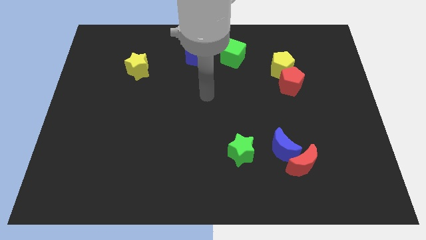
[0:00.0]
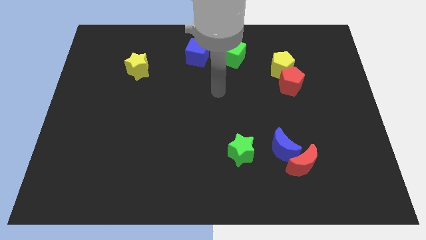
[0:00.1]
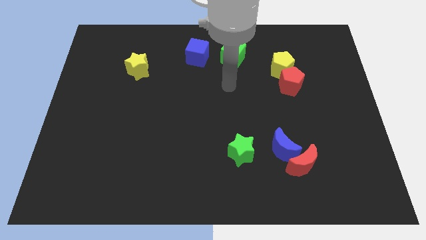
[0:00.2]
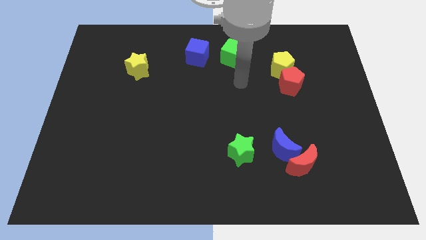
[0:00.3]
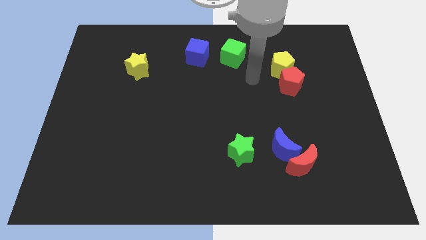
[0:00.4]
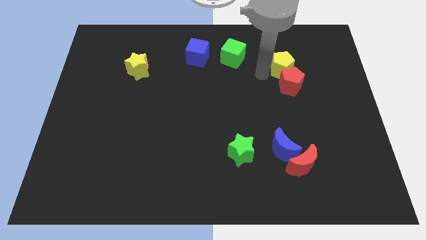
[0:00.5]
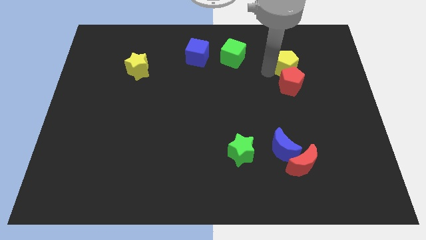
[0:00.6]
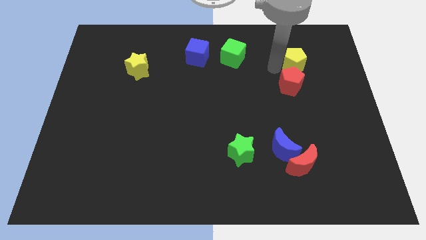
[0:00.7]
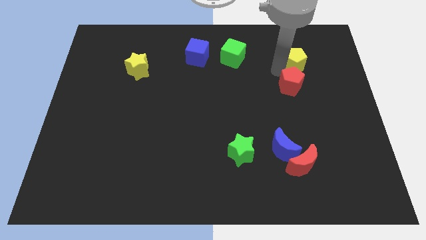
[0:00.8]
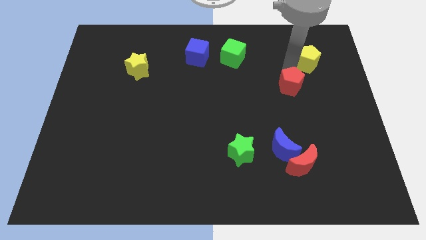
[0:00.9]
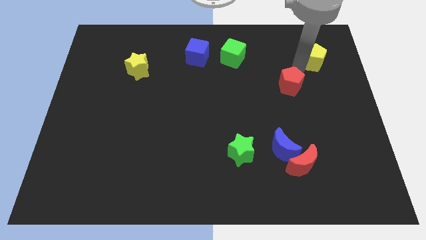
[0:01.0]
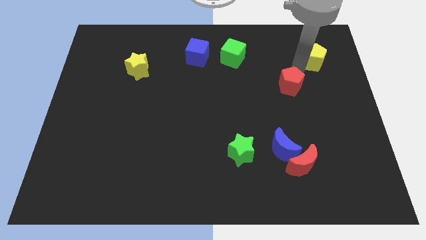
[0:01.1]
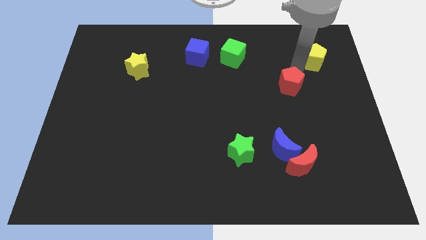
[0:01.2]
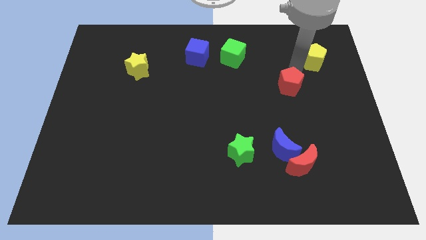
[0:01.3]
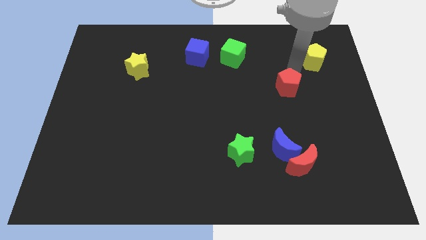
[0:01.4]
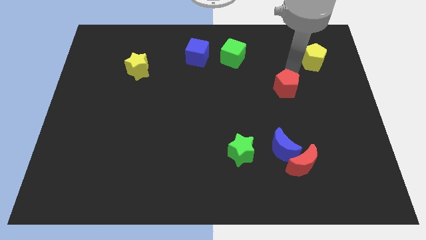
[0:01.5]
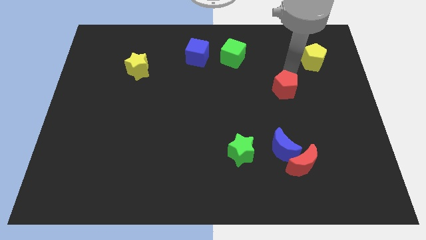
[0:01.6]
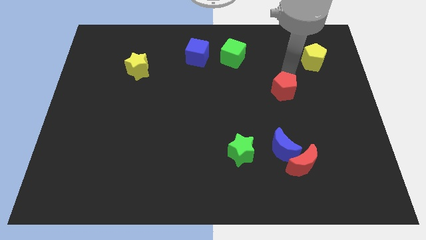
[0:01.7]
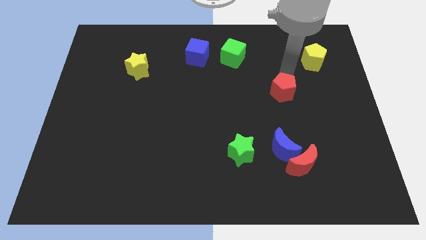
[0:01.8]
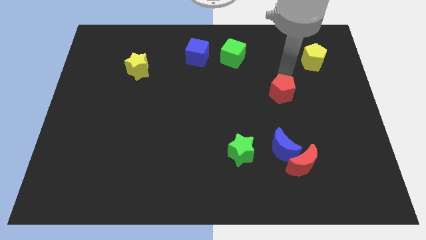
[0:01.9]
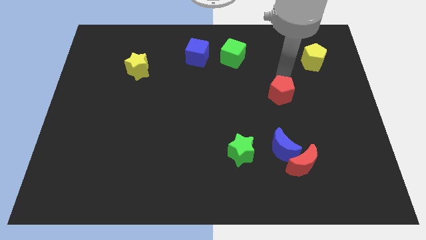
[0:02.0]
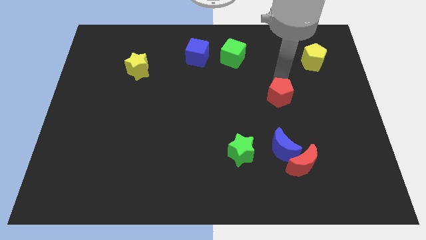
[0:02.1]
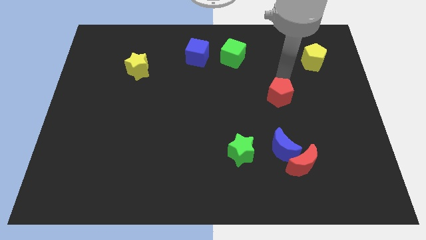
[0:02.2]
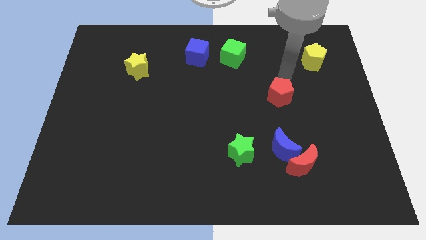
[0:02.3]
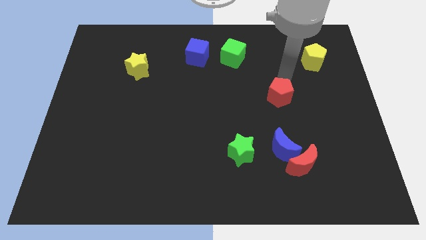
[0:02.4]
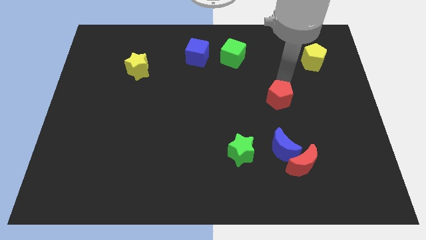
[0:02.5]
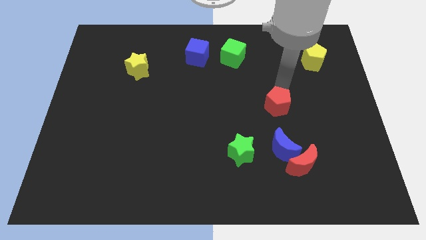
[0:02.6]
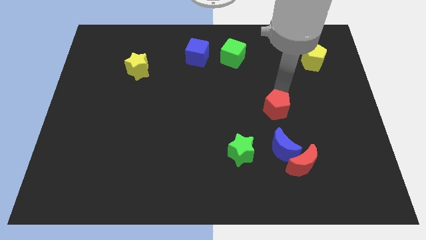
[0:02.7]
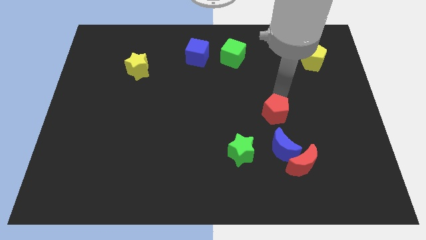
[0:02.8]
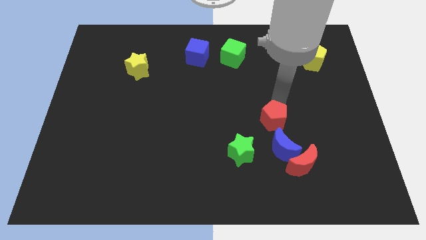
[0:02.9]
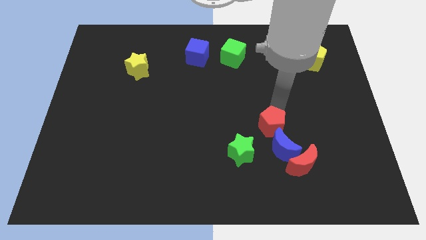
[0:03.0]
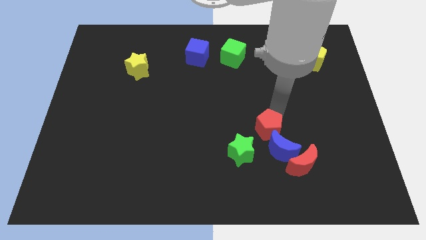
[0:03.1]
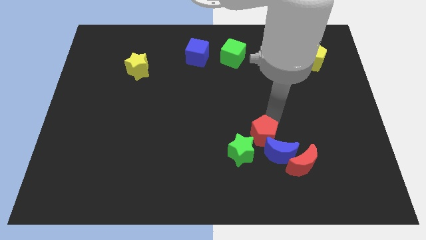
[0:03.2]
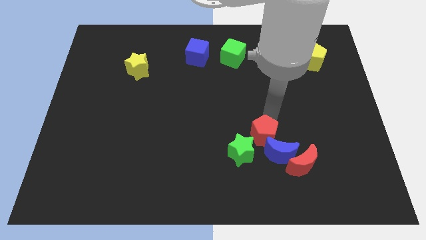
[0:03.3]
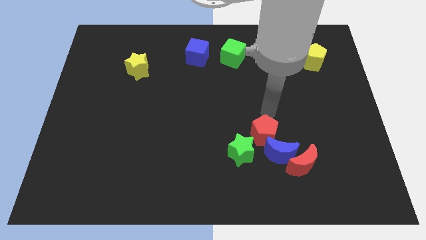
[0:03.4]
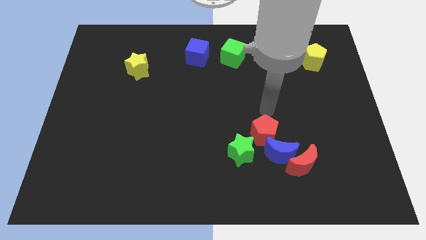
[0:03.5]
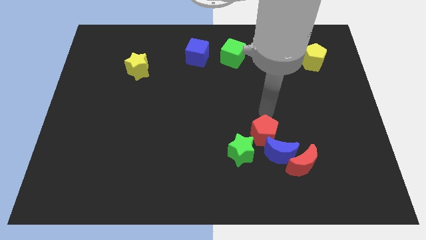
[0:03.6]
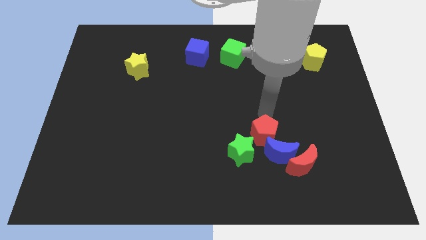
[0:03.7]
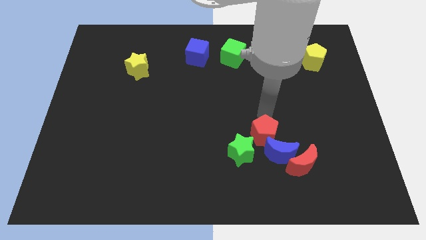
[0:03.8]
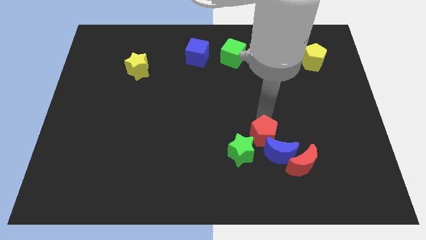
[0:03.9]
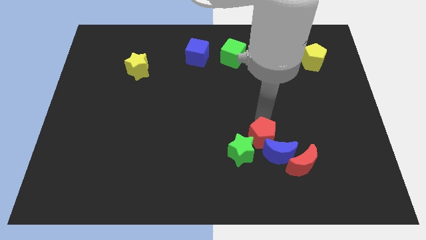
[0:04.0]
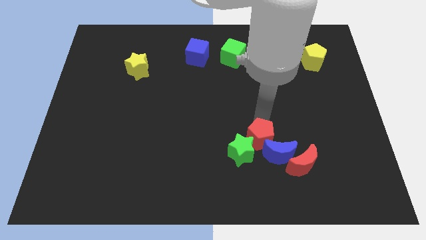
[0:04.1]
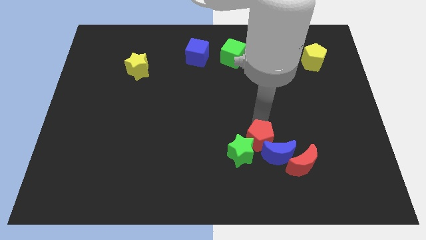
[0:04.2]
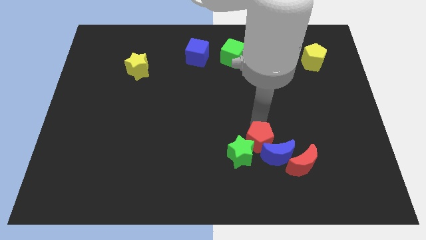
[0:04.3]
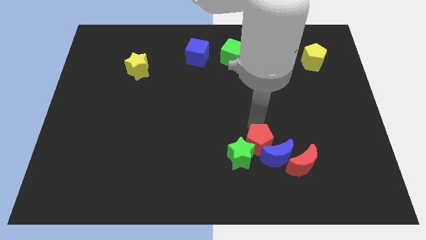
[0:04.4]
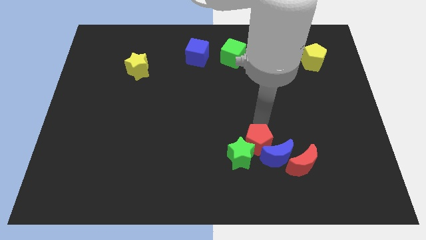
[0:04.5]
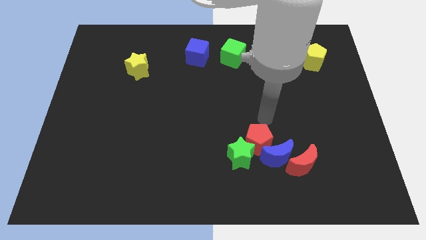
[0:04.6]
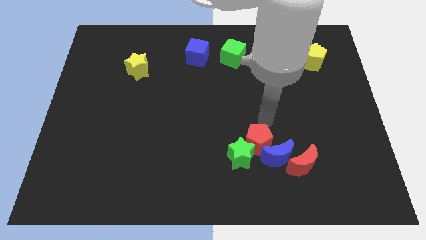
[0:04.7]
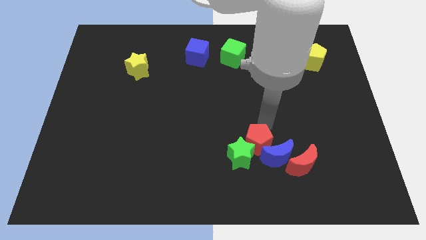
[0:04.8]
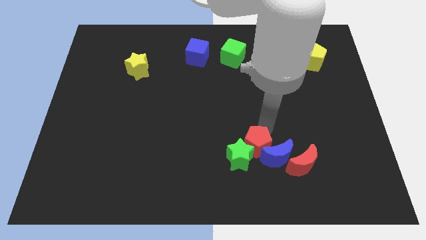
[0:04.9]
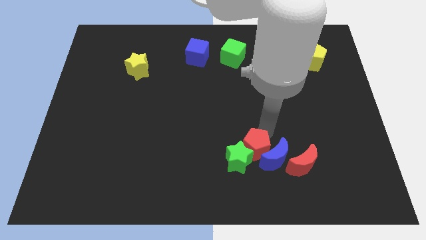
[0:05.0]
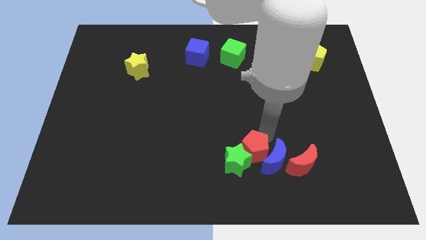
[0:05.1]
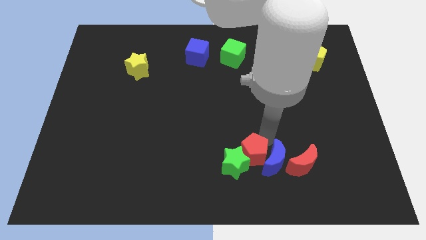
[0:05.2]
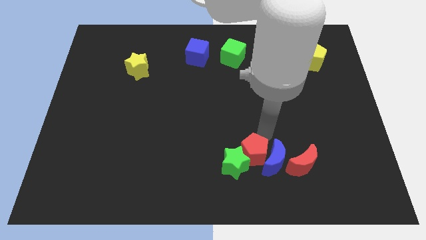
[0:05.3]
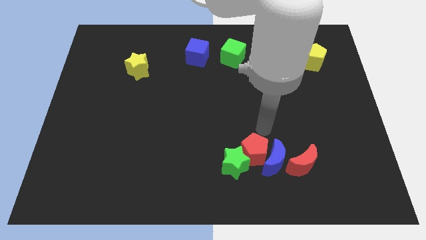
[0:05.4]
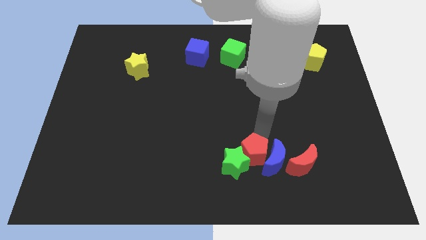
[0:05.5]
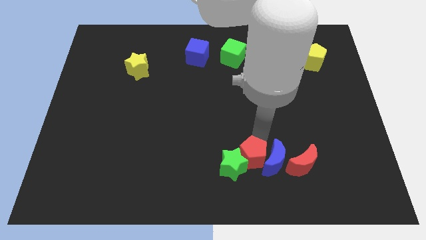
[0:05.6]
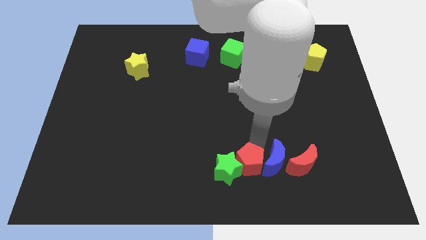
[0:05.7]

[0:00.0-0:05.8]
move the red pentagon to the bottom side
